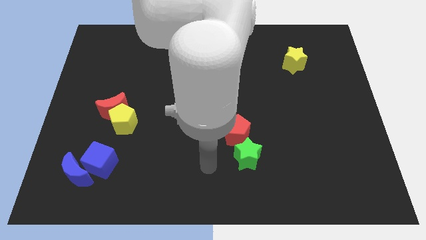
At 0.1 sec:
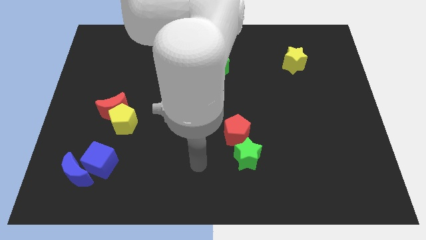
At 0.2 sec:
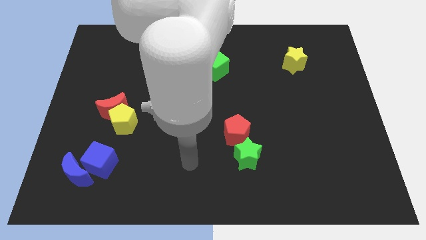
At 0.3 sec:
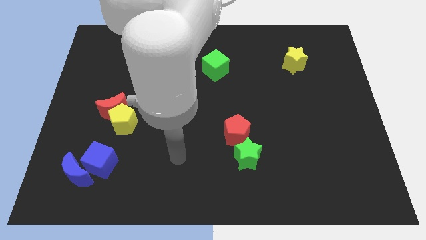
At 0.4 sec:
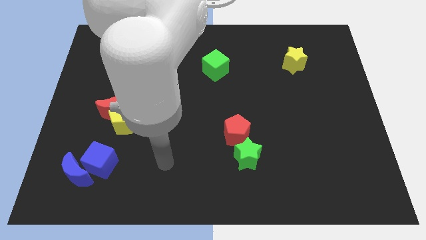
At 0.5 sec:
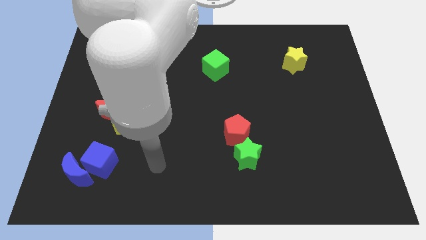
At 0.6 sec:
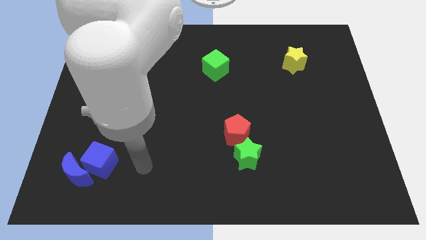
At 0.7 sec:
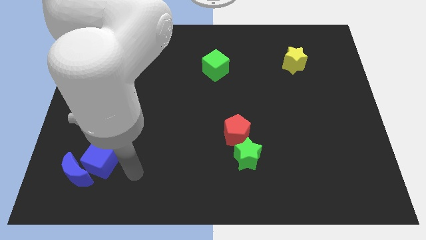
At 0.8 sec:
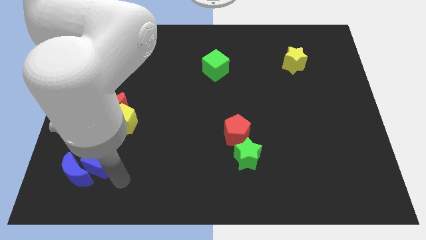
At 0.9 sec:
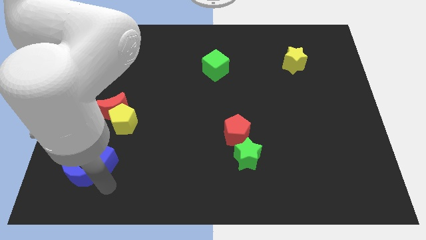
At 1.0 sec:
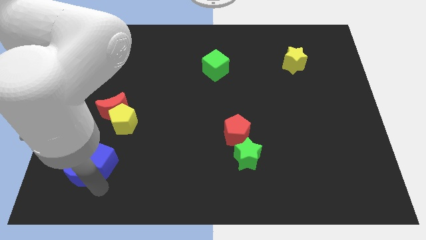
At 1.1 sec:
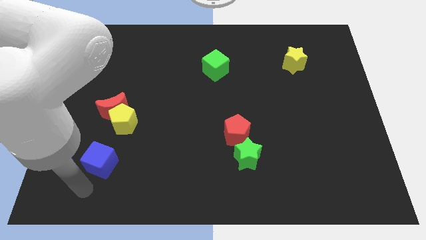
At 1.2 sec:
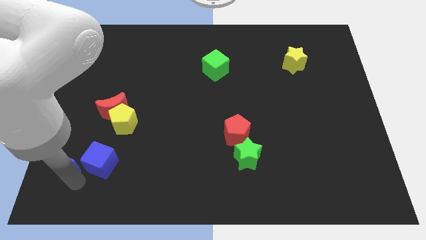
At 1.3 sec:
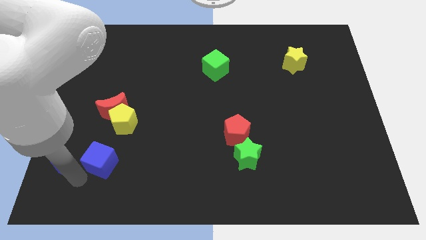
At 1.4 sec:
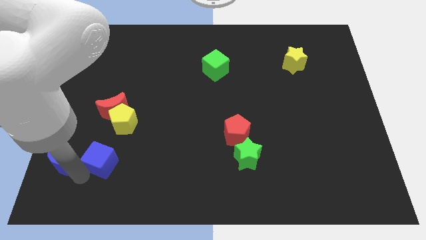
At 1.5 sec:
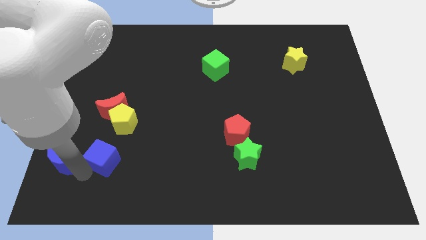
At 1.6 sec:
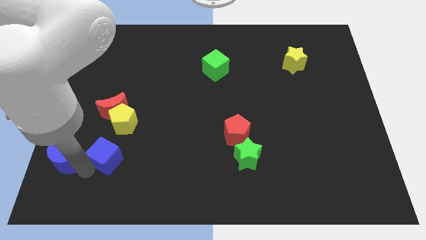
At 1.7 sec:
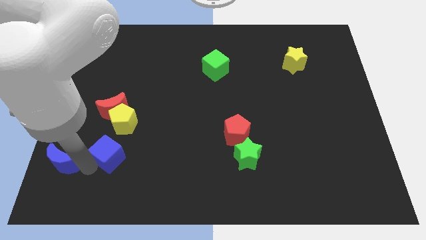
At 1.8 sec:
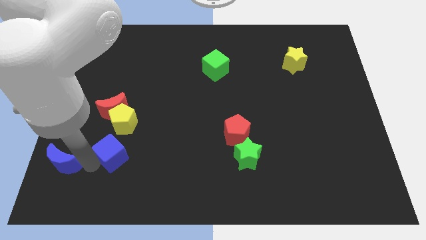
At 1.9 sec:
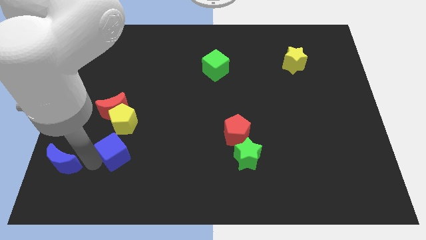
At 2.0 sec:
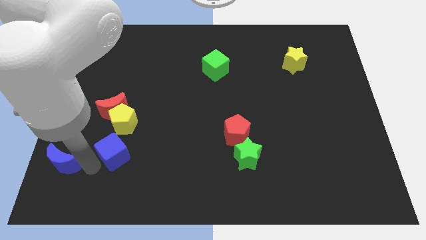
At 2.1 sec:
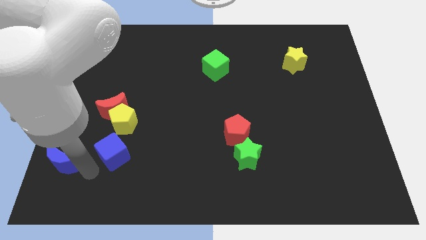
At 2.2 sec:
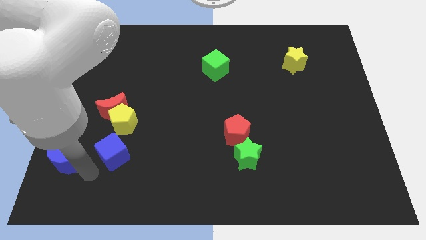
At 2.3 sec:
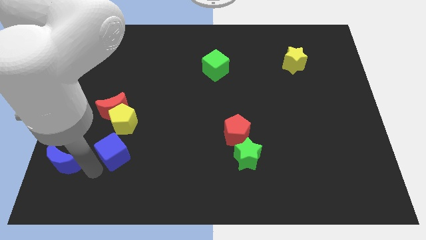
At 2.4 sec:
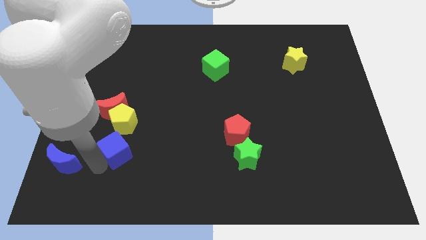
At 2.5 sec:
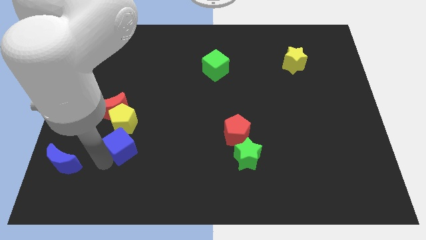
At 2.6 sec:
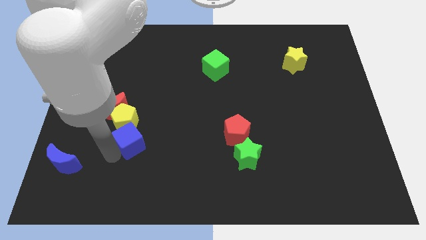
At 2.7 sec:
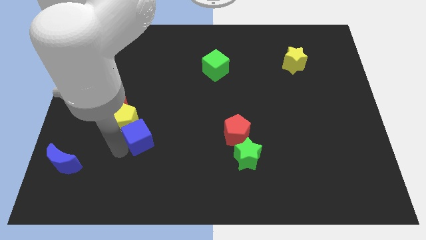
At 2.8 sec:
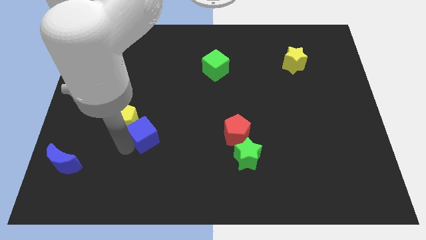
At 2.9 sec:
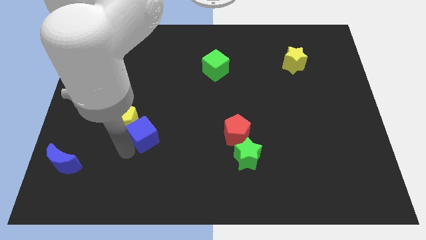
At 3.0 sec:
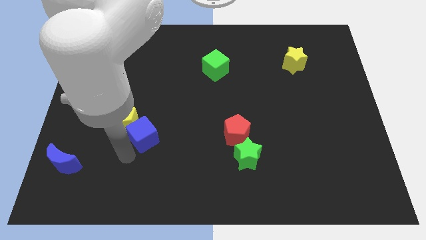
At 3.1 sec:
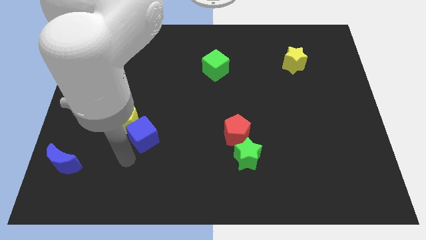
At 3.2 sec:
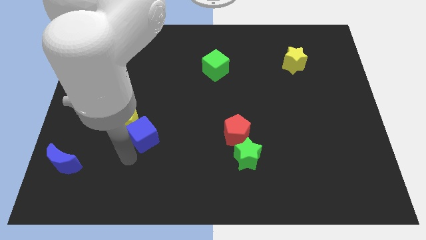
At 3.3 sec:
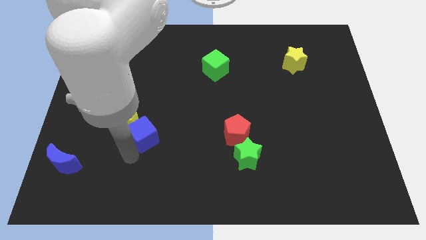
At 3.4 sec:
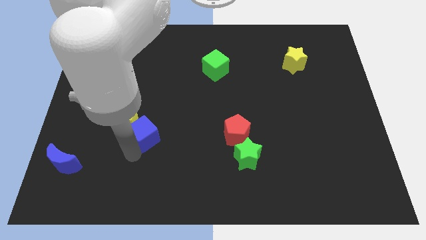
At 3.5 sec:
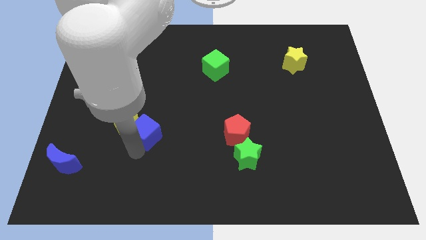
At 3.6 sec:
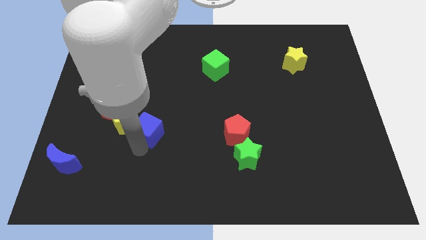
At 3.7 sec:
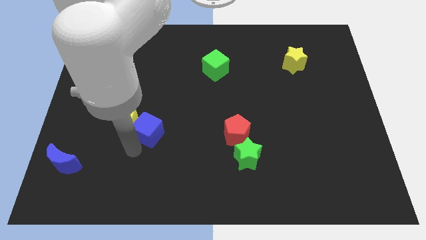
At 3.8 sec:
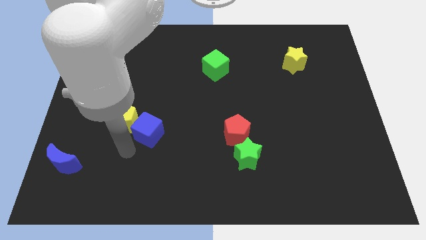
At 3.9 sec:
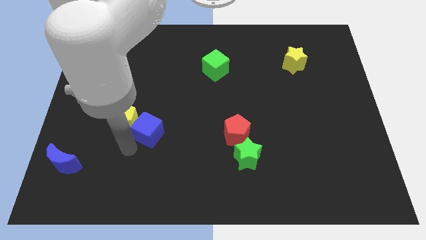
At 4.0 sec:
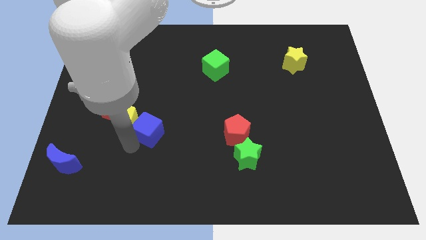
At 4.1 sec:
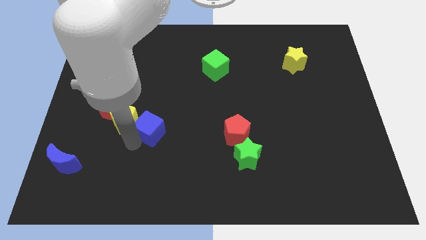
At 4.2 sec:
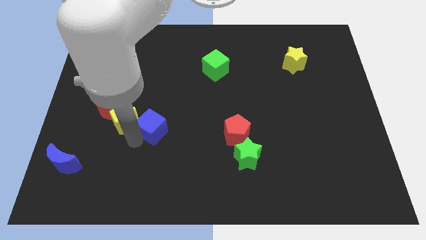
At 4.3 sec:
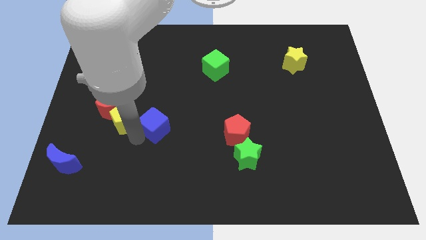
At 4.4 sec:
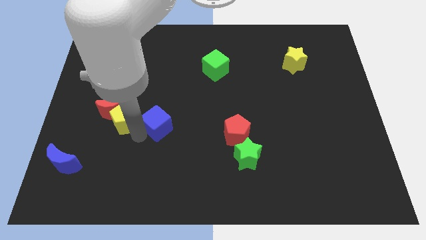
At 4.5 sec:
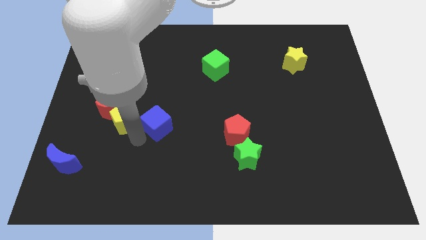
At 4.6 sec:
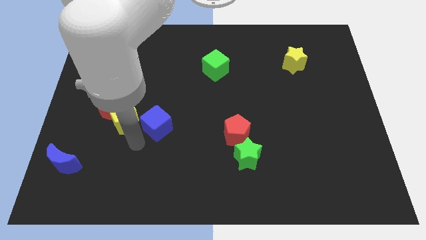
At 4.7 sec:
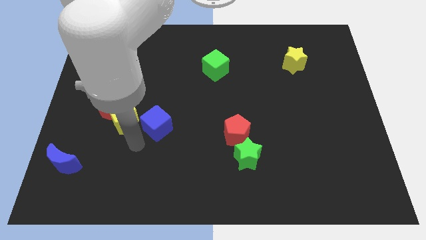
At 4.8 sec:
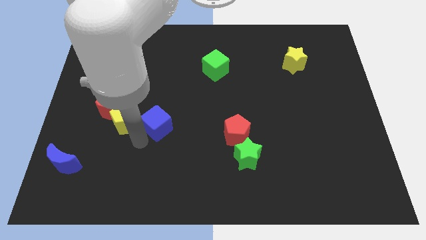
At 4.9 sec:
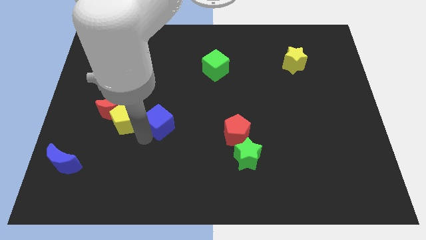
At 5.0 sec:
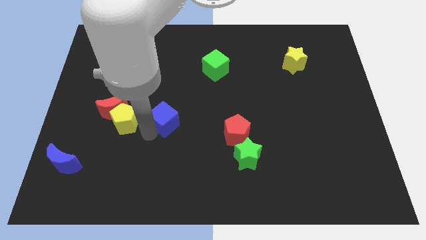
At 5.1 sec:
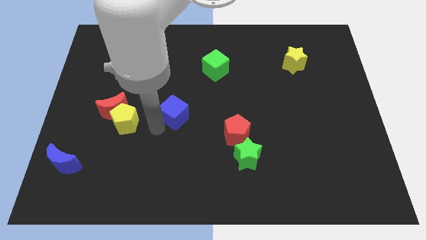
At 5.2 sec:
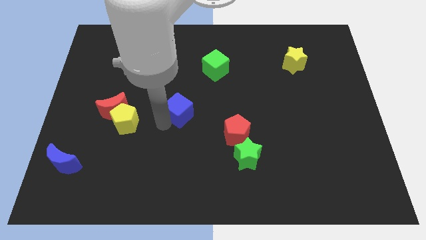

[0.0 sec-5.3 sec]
move the blue cube diagonally upwards and to the right

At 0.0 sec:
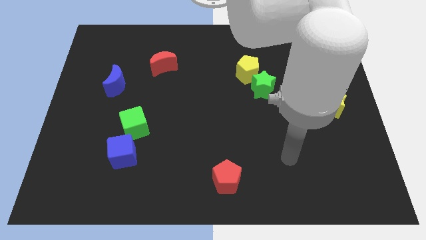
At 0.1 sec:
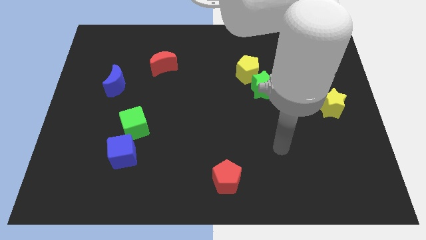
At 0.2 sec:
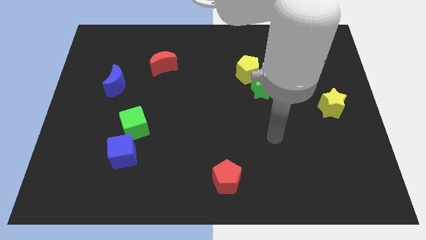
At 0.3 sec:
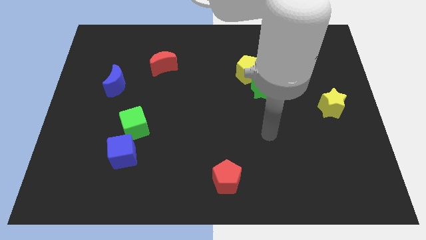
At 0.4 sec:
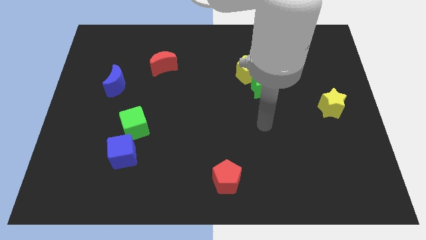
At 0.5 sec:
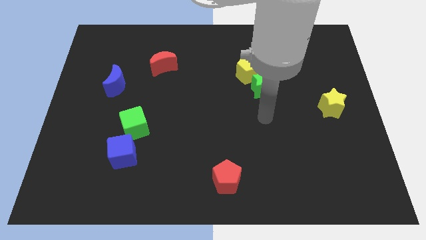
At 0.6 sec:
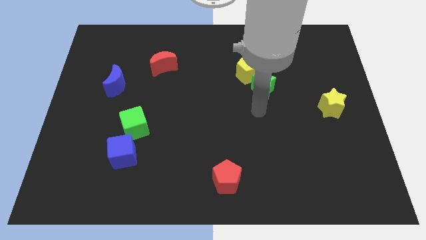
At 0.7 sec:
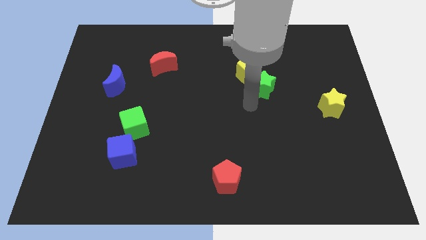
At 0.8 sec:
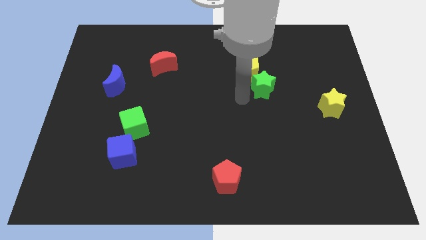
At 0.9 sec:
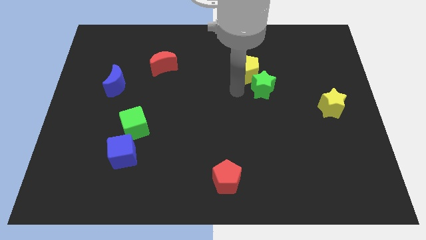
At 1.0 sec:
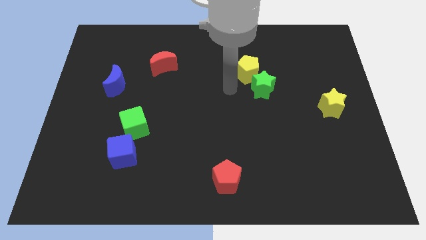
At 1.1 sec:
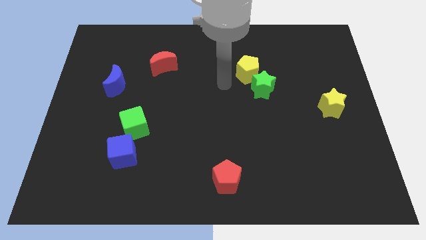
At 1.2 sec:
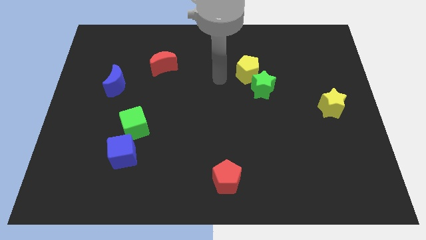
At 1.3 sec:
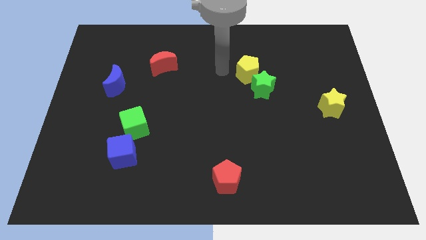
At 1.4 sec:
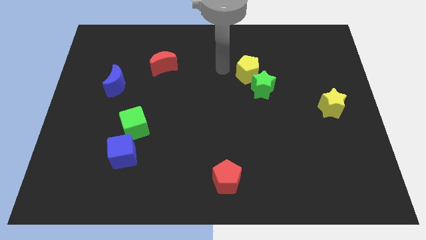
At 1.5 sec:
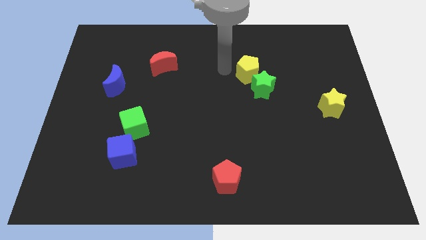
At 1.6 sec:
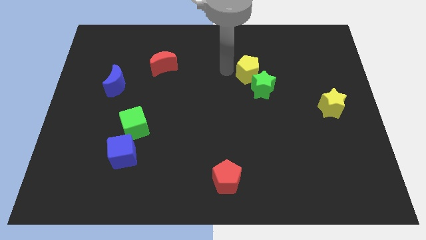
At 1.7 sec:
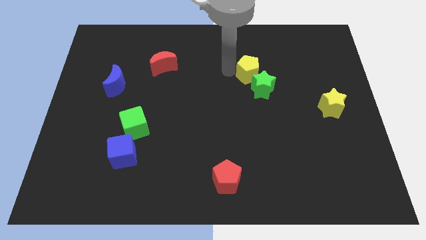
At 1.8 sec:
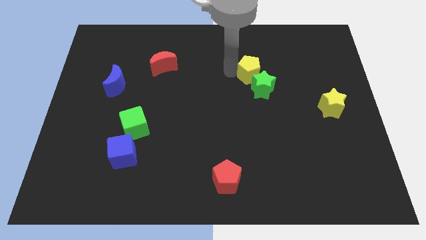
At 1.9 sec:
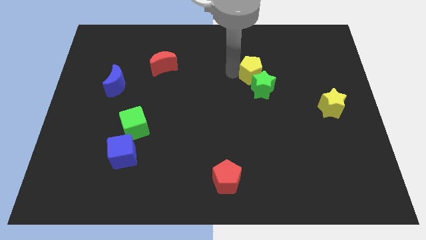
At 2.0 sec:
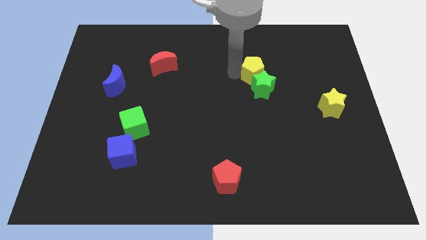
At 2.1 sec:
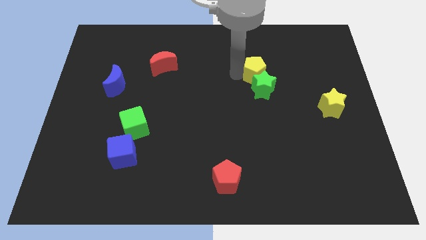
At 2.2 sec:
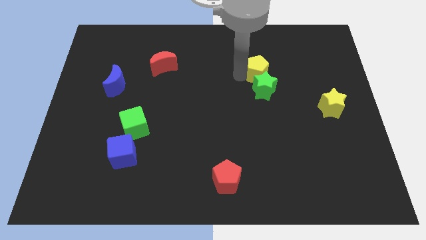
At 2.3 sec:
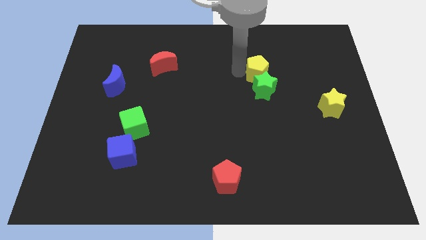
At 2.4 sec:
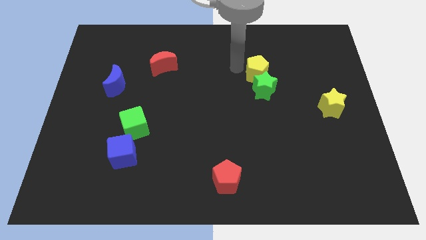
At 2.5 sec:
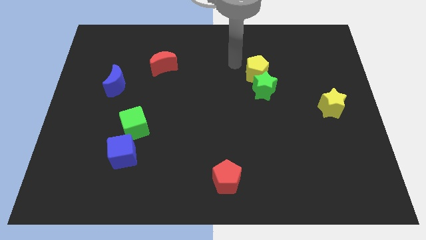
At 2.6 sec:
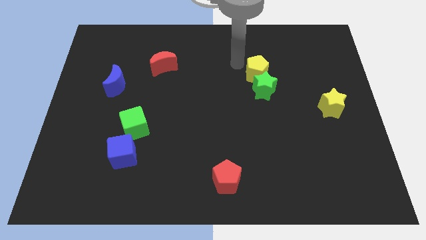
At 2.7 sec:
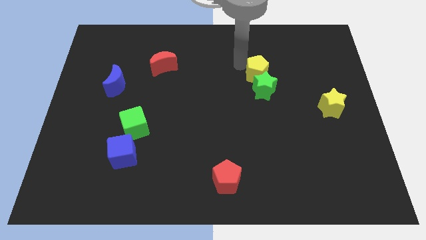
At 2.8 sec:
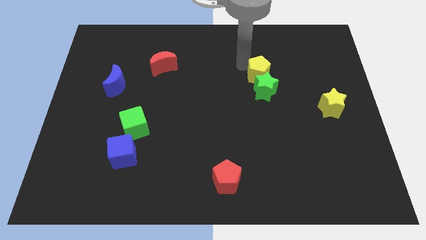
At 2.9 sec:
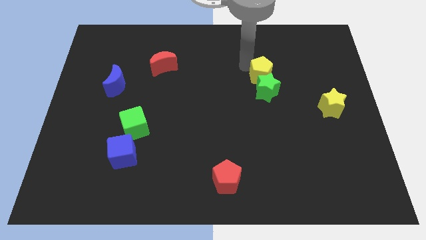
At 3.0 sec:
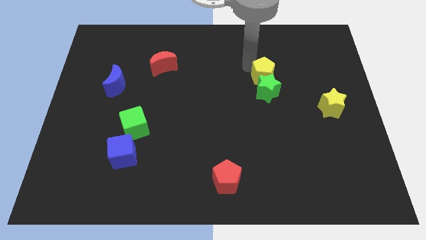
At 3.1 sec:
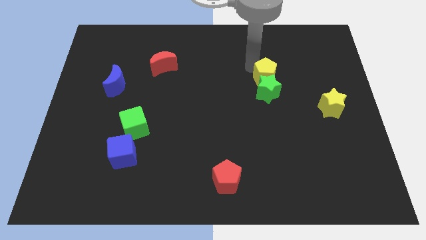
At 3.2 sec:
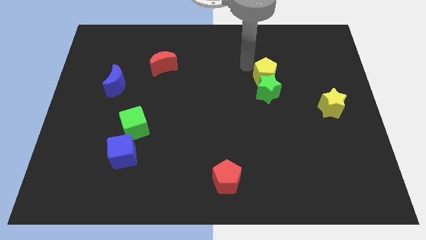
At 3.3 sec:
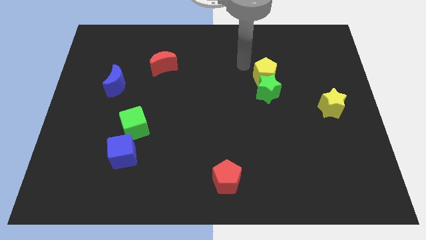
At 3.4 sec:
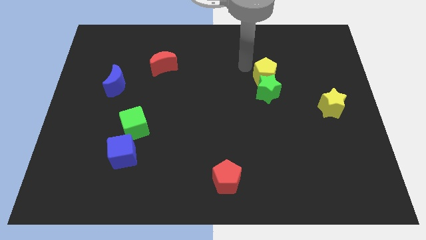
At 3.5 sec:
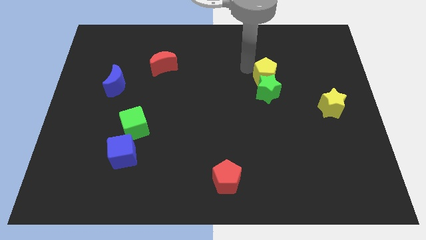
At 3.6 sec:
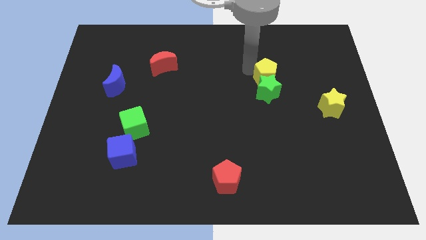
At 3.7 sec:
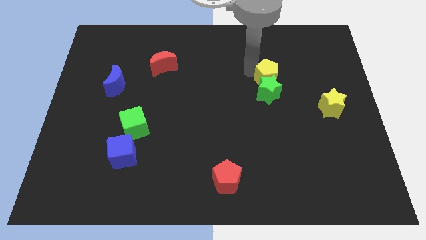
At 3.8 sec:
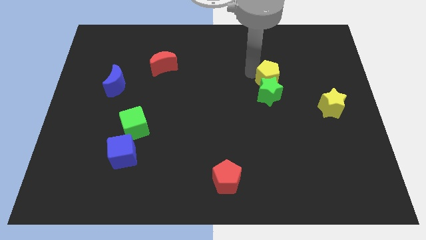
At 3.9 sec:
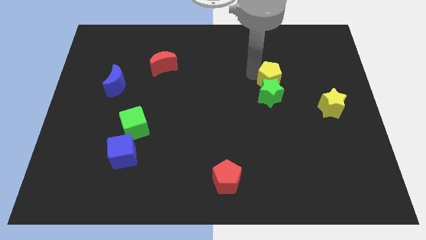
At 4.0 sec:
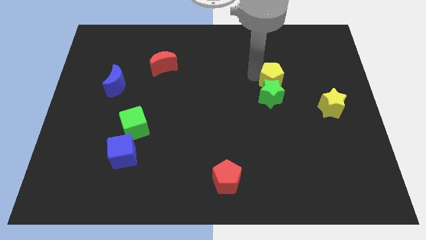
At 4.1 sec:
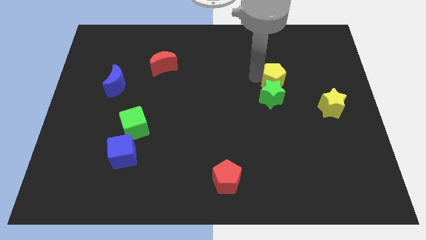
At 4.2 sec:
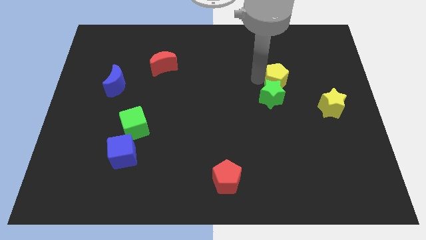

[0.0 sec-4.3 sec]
slightly move the yellow pentagon downwards and right diagonally
